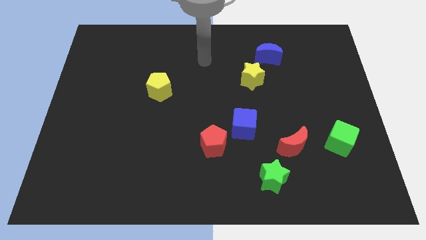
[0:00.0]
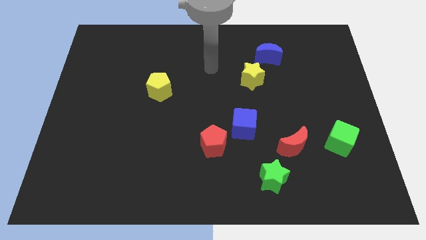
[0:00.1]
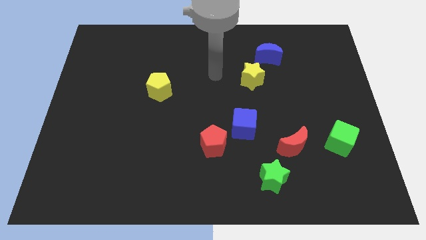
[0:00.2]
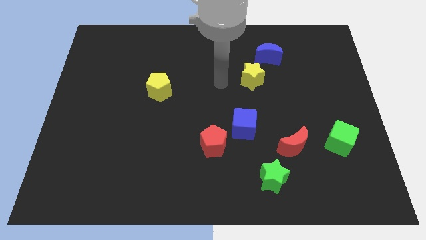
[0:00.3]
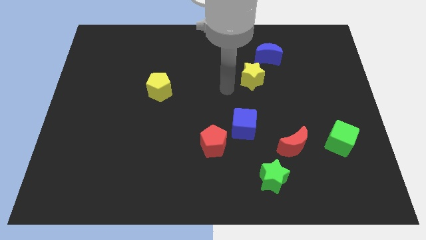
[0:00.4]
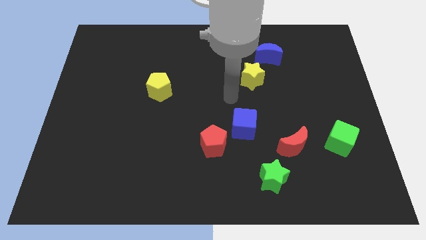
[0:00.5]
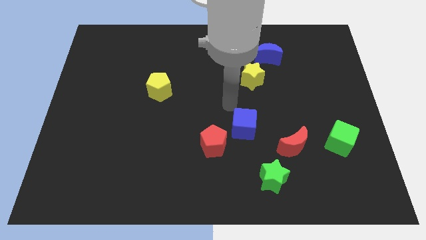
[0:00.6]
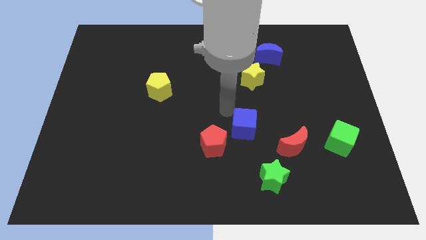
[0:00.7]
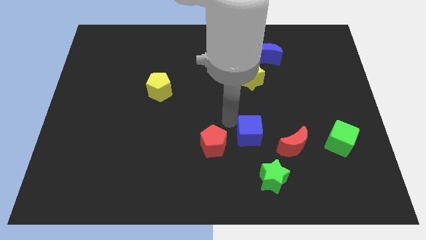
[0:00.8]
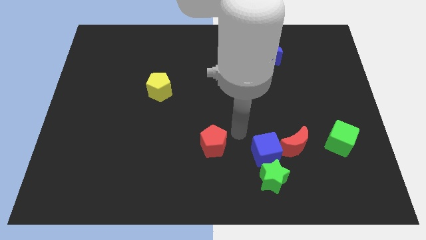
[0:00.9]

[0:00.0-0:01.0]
separate the red pentagon from the blue cube

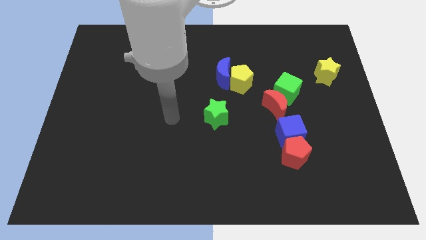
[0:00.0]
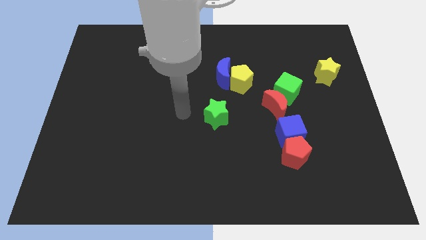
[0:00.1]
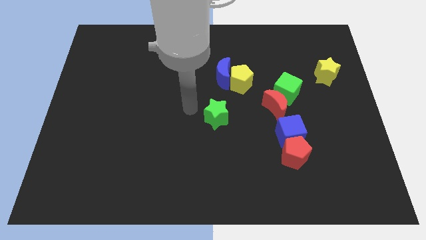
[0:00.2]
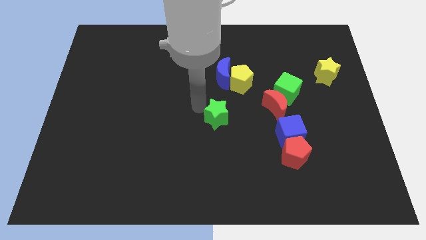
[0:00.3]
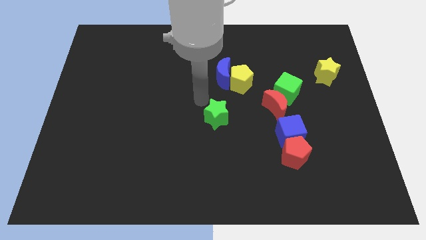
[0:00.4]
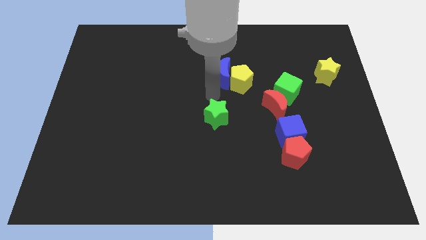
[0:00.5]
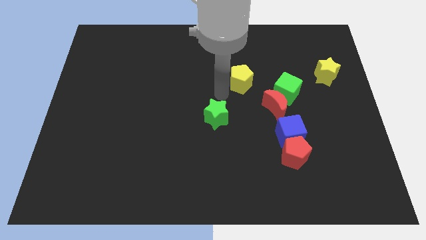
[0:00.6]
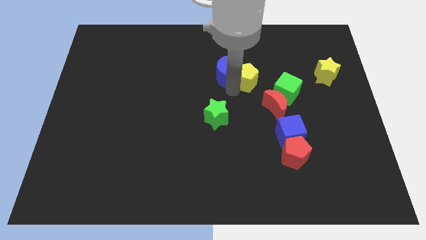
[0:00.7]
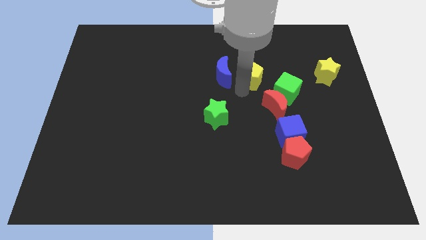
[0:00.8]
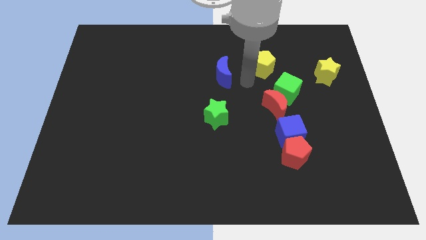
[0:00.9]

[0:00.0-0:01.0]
move the blue moon away from the yellow pentagon

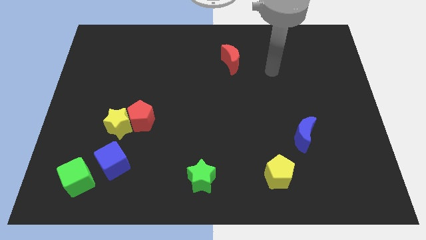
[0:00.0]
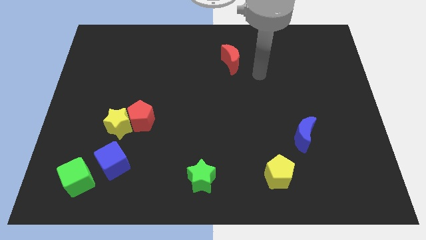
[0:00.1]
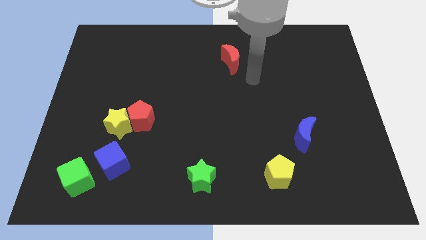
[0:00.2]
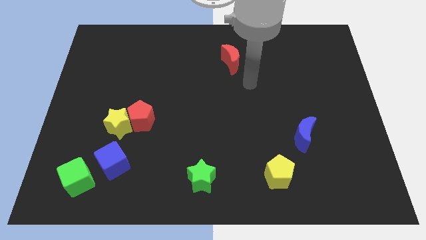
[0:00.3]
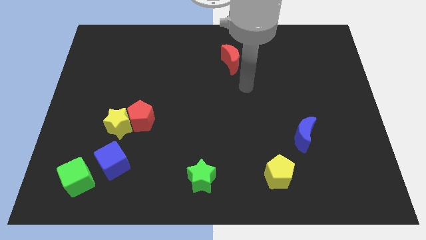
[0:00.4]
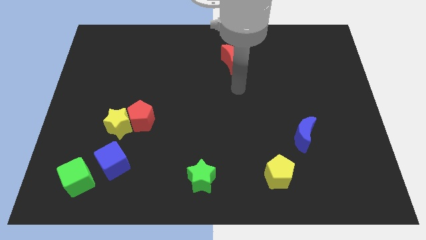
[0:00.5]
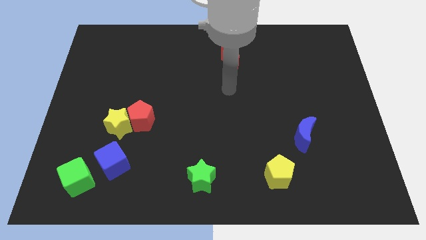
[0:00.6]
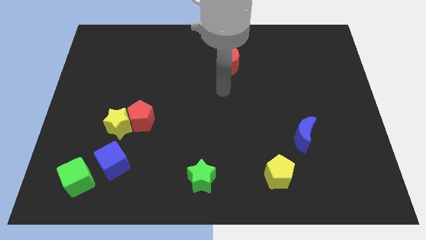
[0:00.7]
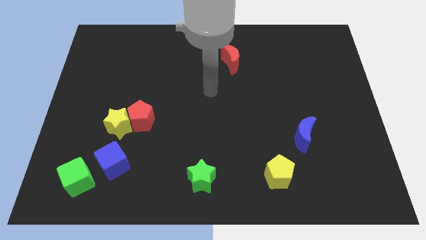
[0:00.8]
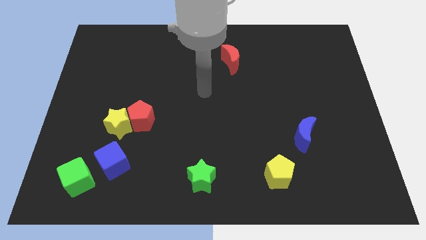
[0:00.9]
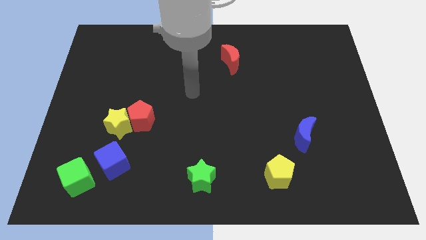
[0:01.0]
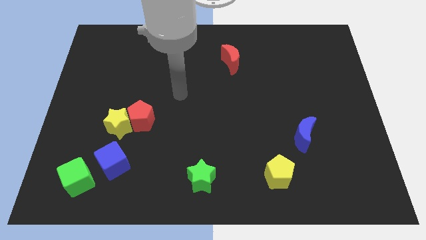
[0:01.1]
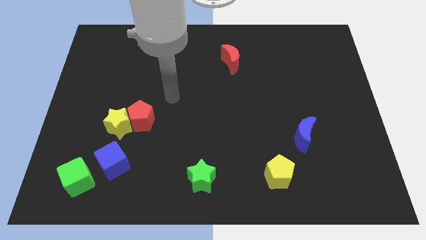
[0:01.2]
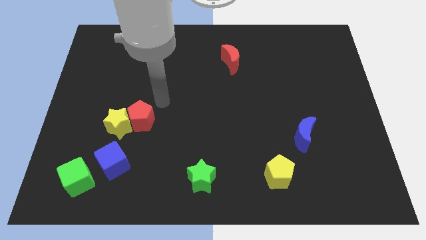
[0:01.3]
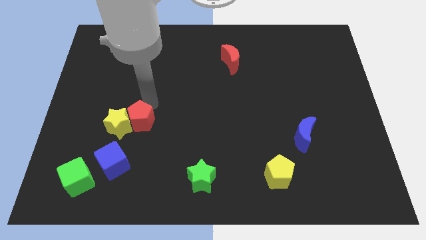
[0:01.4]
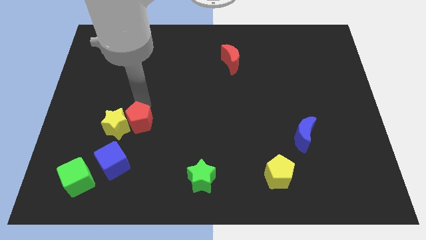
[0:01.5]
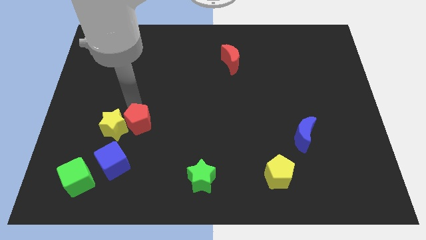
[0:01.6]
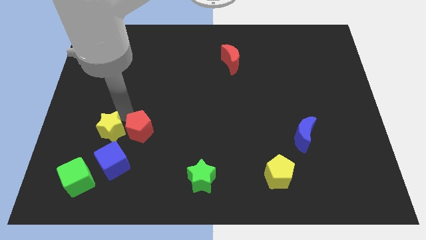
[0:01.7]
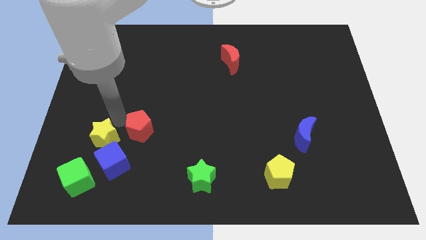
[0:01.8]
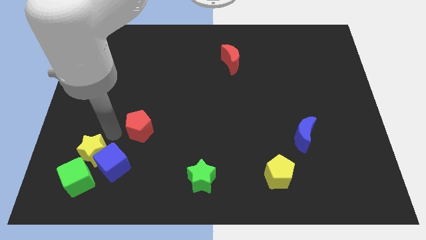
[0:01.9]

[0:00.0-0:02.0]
move the red pentagon away from the yellow star

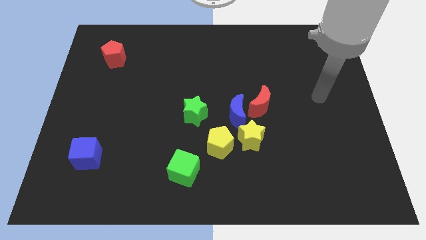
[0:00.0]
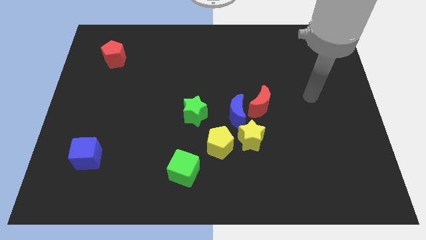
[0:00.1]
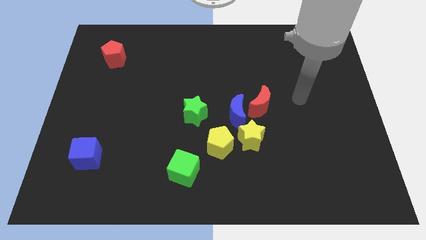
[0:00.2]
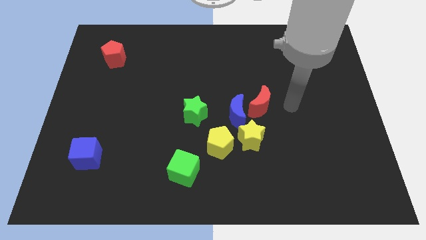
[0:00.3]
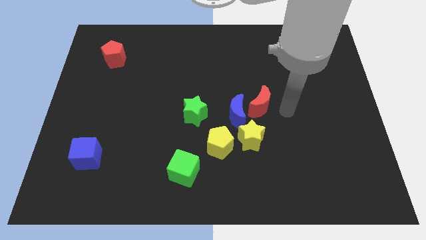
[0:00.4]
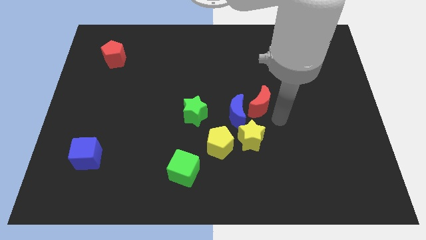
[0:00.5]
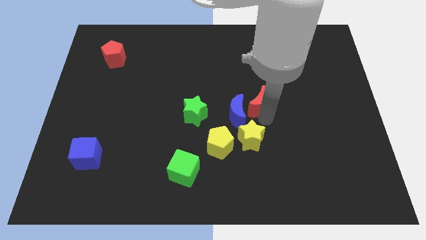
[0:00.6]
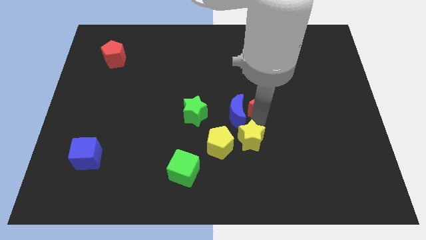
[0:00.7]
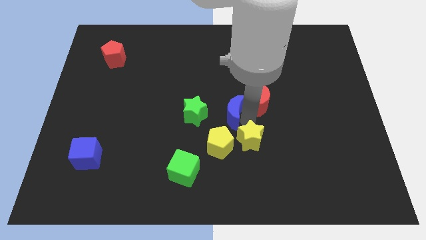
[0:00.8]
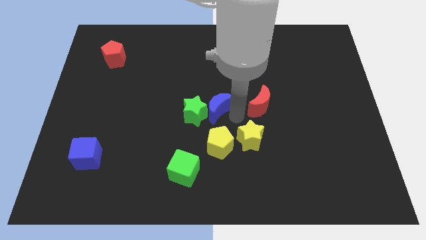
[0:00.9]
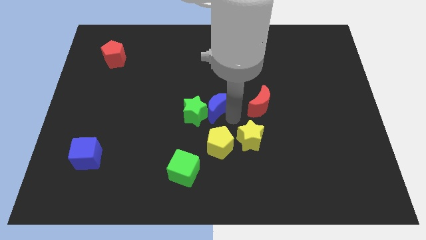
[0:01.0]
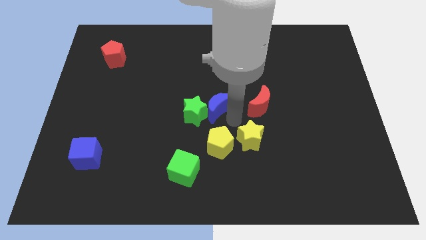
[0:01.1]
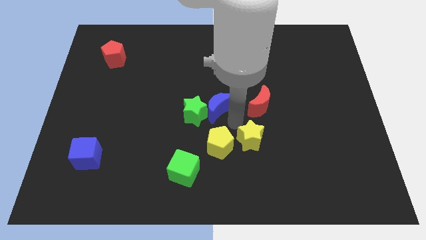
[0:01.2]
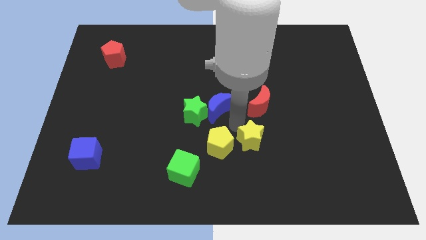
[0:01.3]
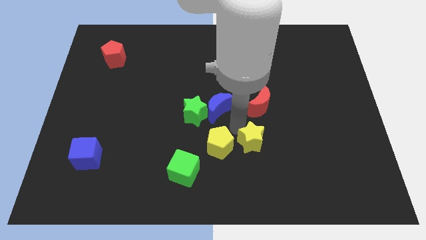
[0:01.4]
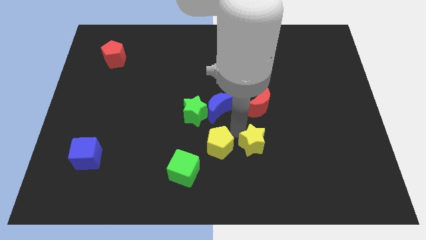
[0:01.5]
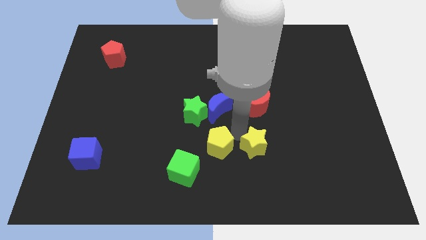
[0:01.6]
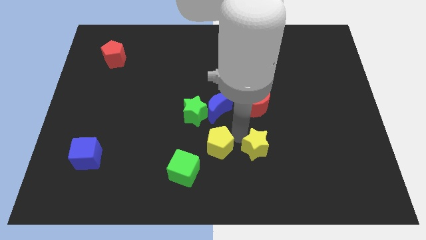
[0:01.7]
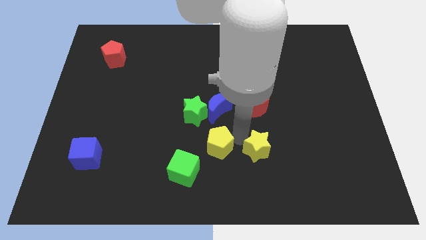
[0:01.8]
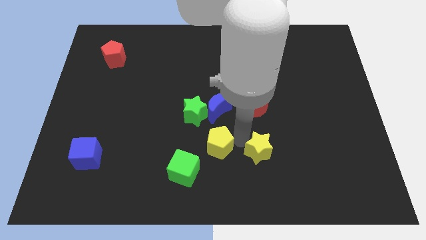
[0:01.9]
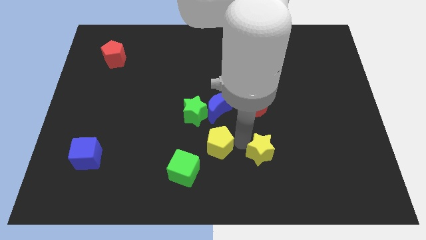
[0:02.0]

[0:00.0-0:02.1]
pull the yellow star apart from the blue moon, yellow pentagon, and red moon

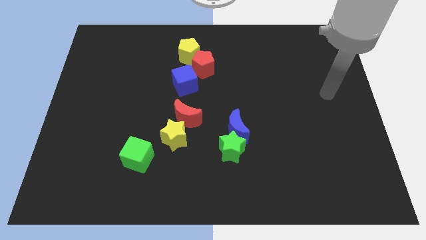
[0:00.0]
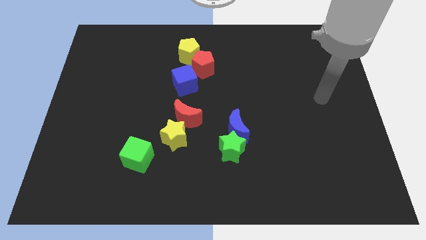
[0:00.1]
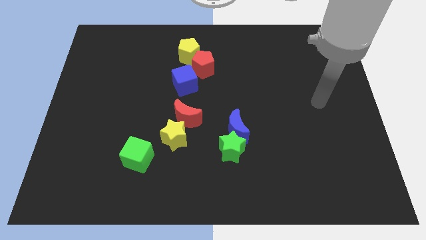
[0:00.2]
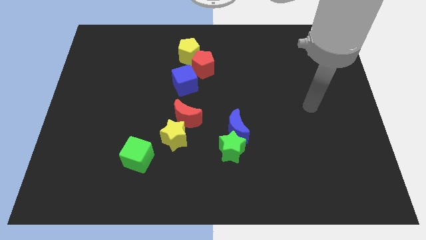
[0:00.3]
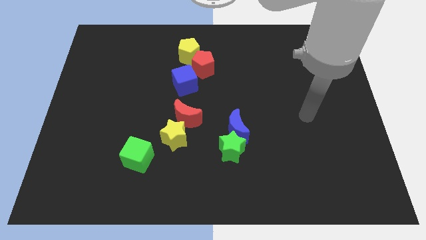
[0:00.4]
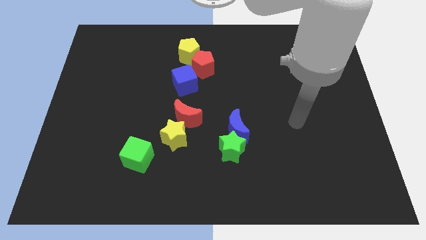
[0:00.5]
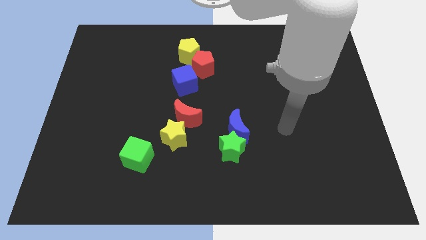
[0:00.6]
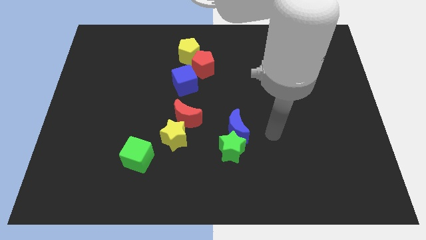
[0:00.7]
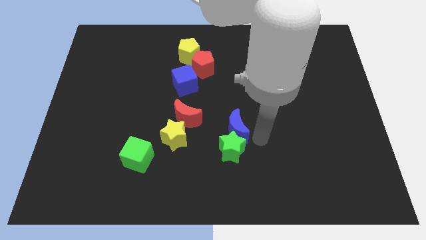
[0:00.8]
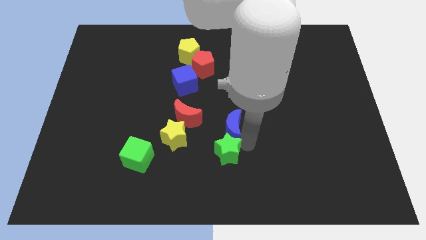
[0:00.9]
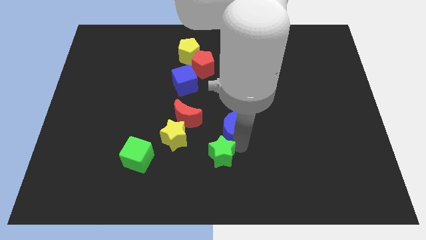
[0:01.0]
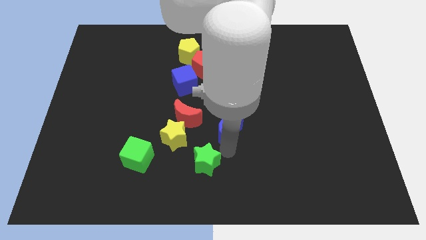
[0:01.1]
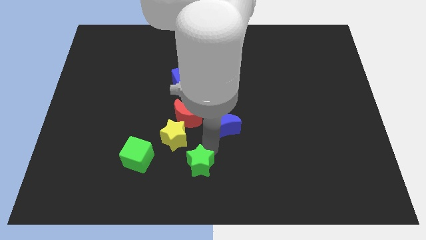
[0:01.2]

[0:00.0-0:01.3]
separate the blue moon from the green star

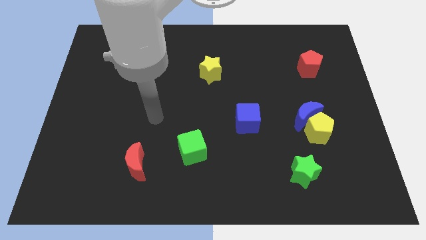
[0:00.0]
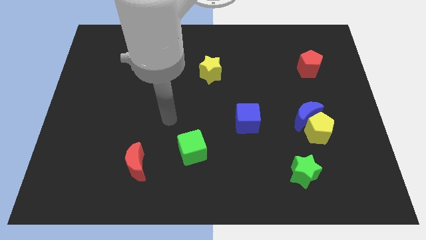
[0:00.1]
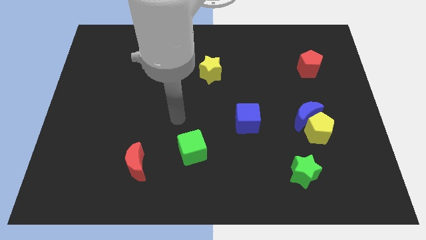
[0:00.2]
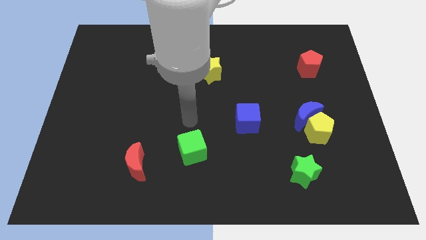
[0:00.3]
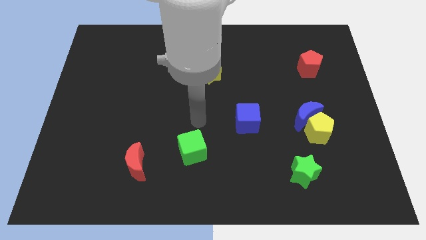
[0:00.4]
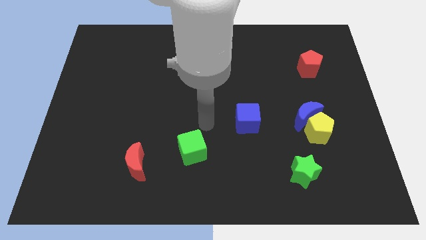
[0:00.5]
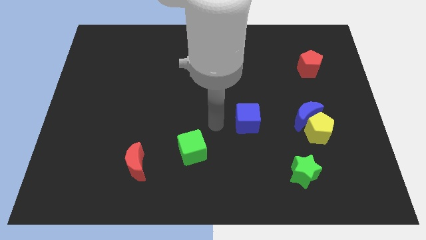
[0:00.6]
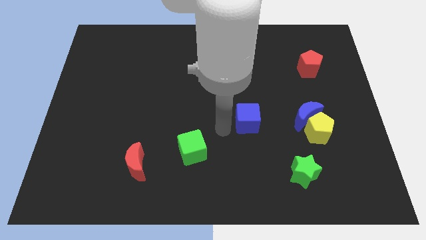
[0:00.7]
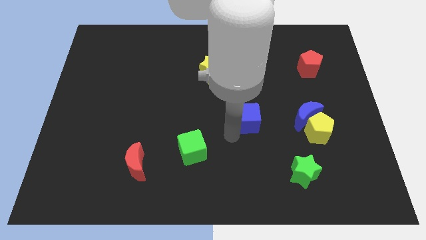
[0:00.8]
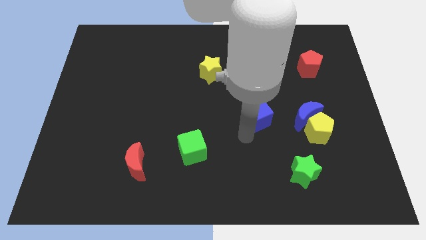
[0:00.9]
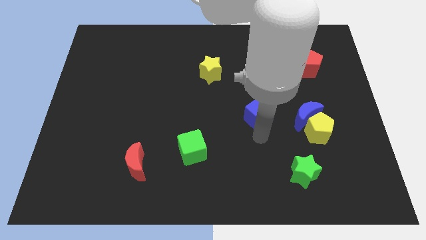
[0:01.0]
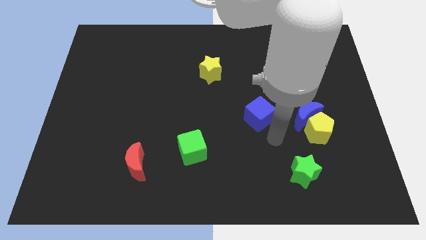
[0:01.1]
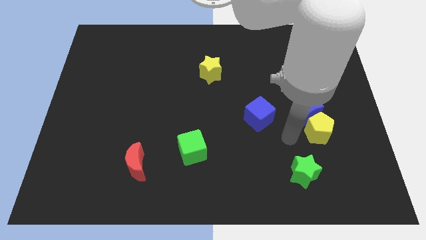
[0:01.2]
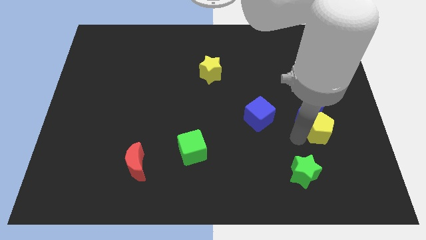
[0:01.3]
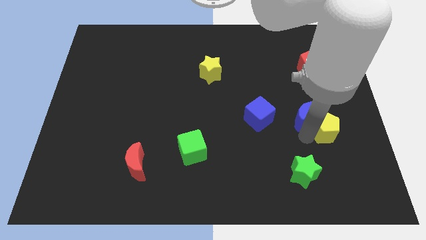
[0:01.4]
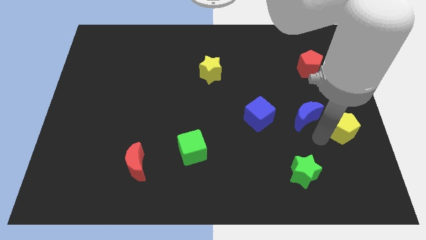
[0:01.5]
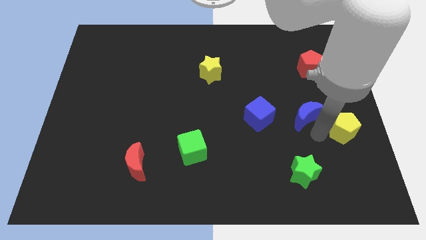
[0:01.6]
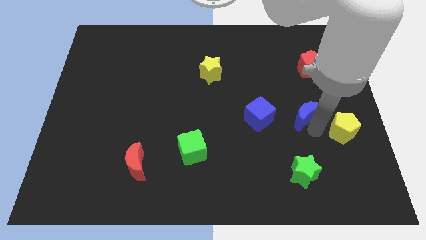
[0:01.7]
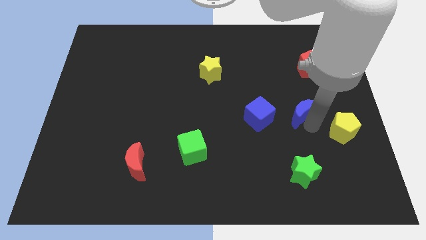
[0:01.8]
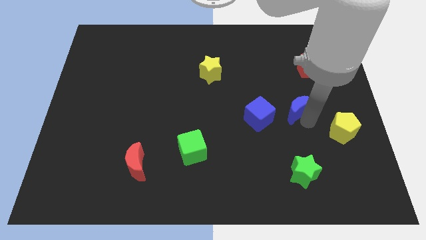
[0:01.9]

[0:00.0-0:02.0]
separate the blue moon from the yellow pentagon
